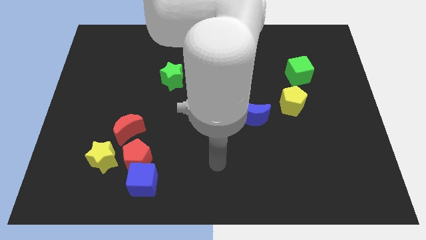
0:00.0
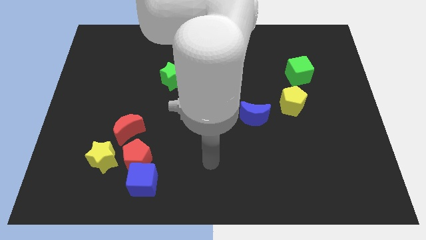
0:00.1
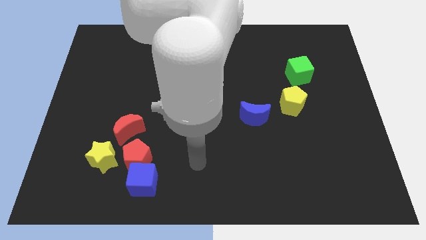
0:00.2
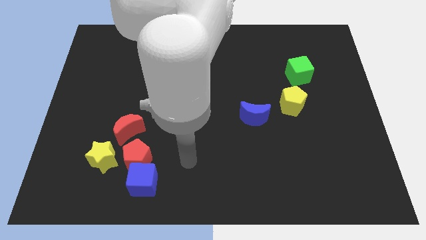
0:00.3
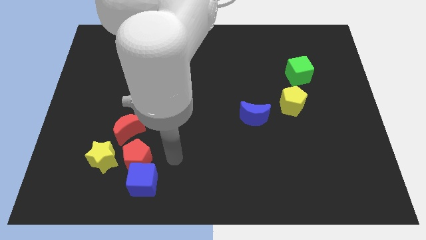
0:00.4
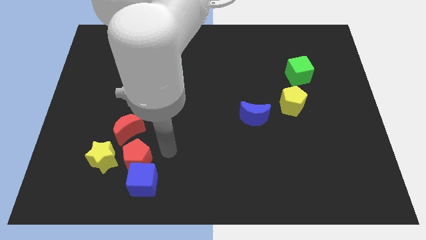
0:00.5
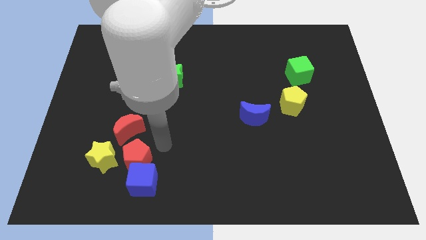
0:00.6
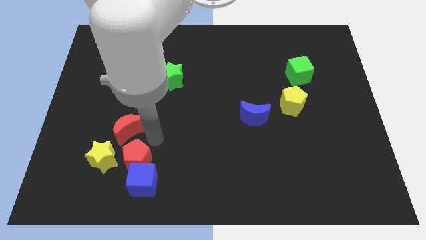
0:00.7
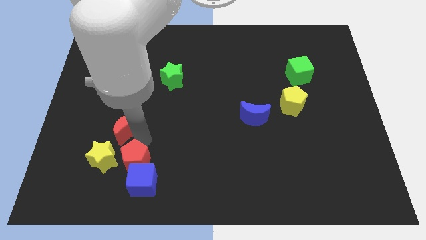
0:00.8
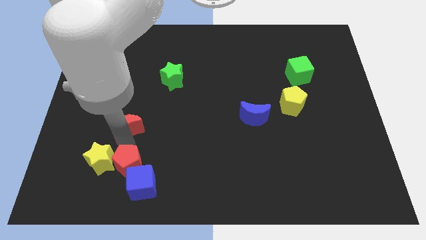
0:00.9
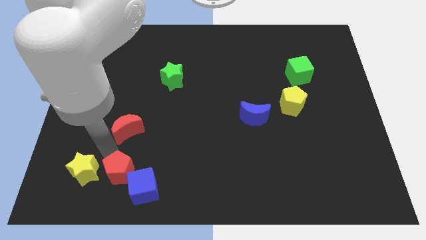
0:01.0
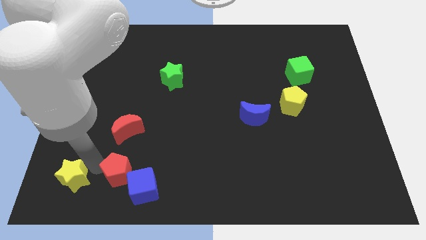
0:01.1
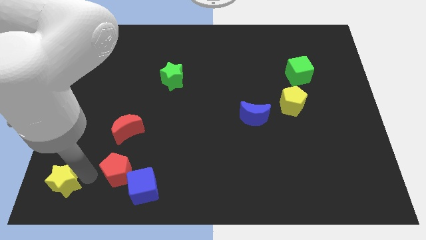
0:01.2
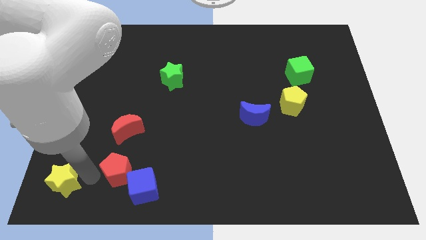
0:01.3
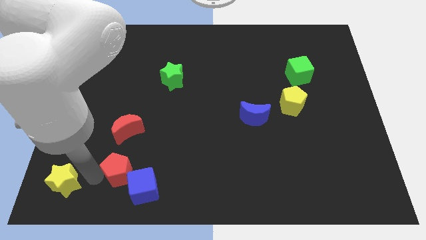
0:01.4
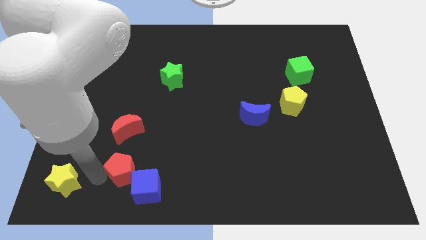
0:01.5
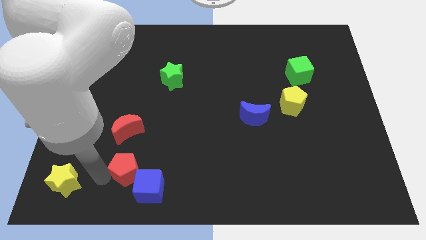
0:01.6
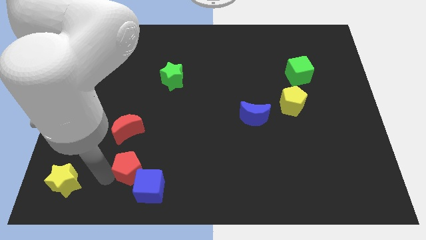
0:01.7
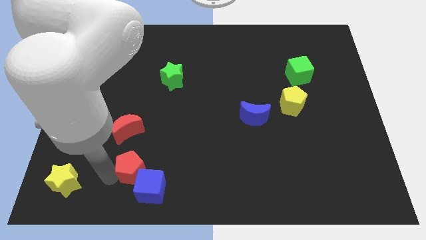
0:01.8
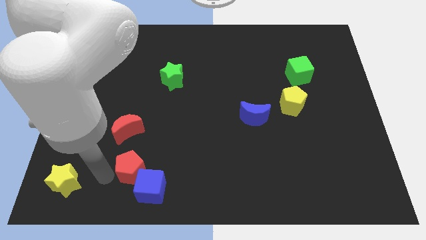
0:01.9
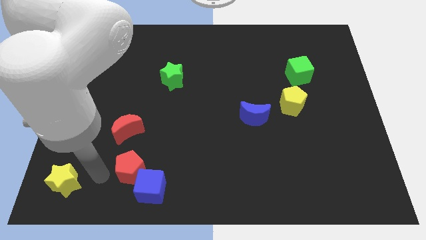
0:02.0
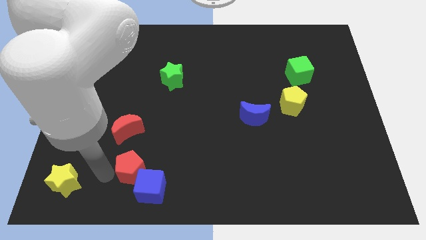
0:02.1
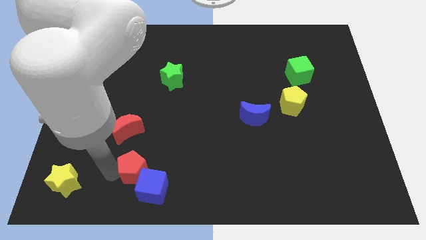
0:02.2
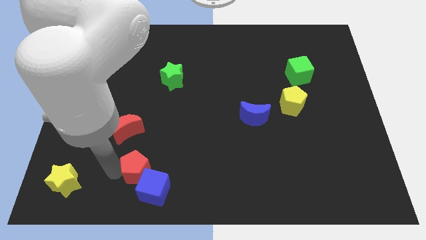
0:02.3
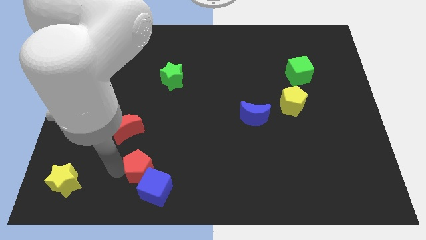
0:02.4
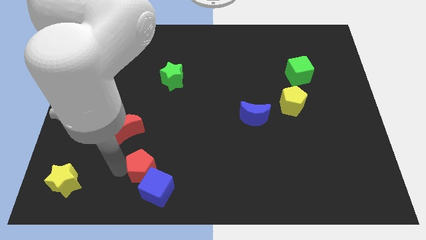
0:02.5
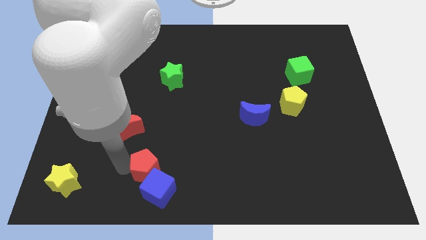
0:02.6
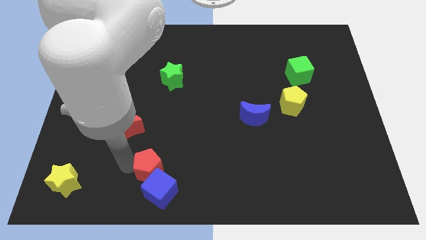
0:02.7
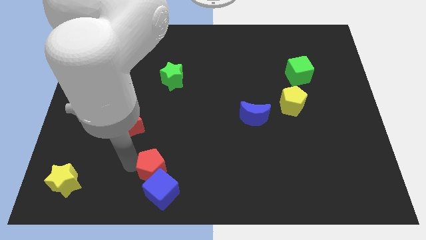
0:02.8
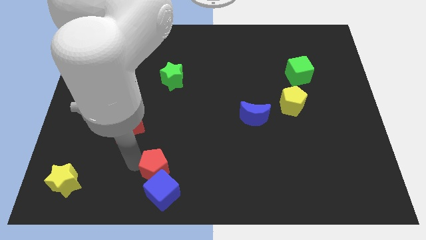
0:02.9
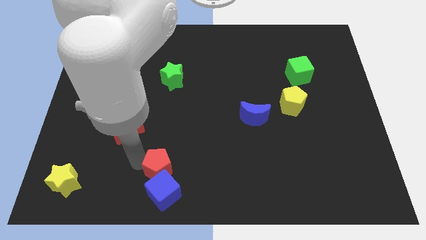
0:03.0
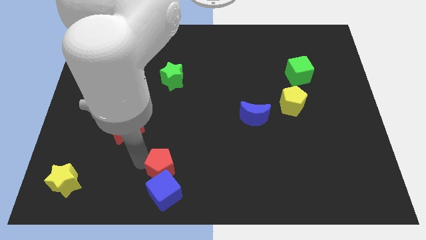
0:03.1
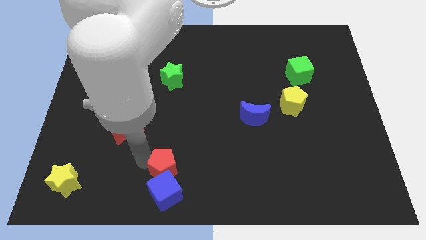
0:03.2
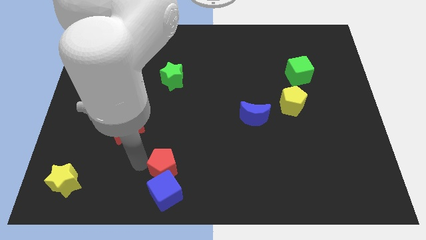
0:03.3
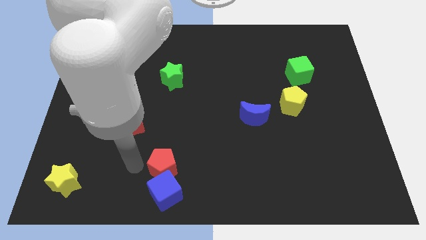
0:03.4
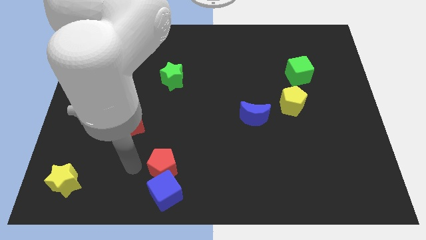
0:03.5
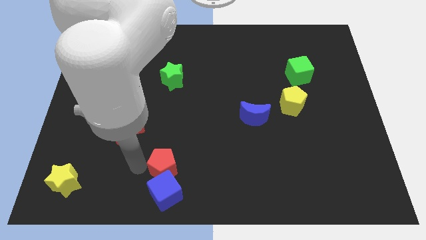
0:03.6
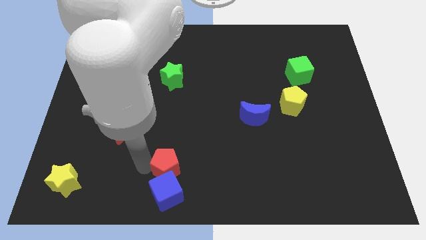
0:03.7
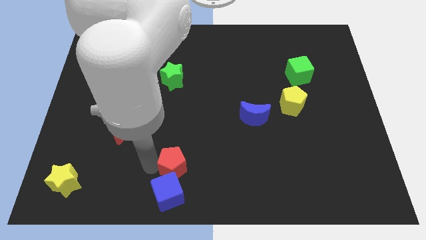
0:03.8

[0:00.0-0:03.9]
pull the red pentagon apart from the blue cube, yellow star, and red moon

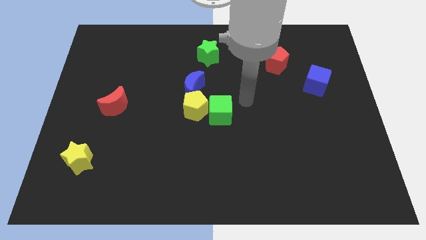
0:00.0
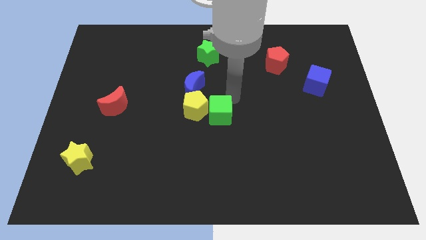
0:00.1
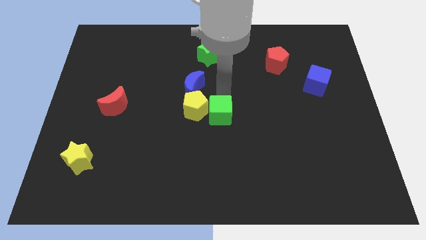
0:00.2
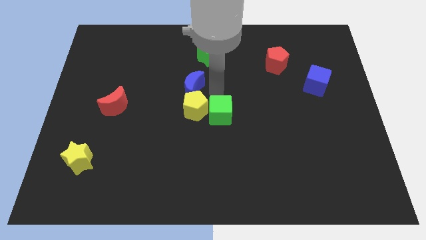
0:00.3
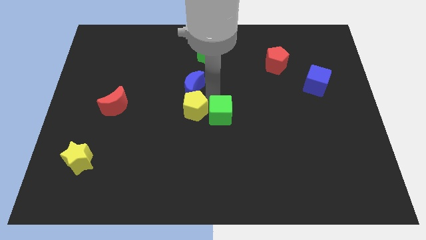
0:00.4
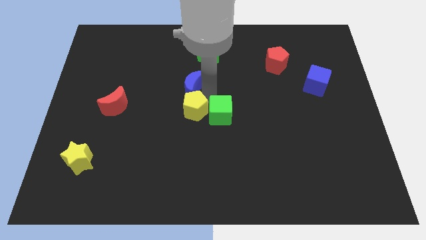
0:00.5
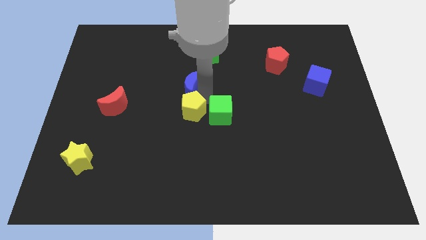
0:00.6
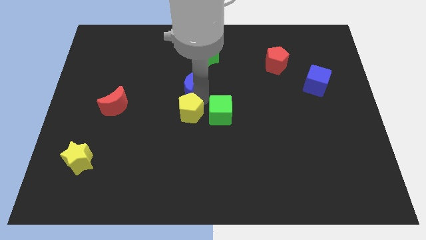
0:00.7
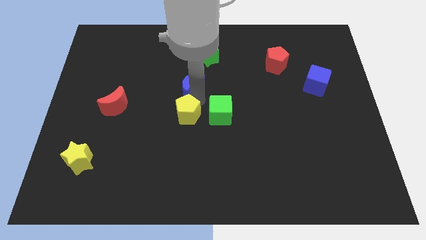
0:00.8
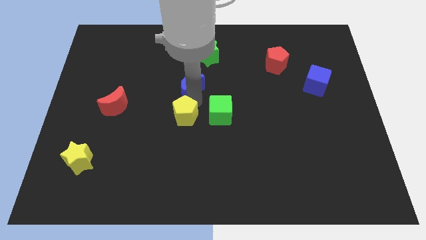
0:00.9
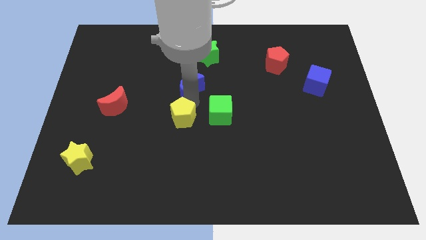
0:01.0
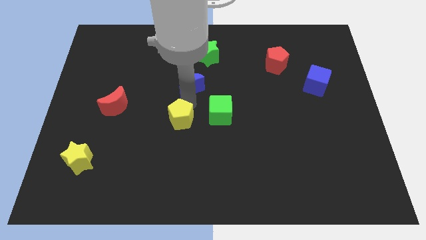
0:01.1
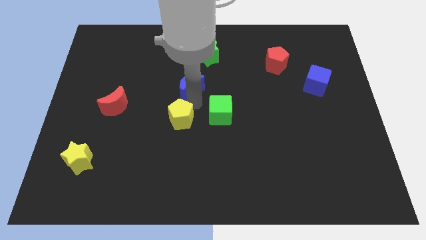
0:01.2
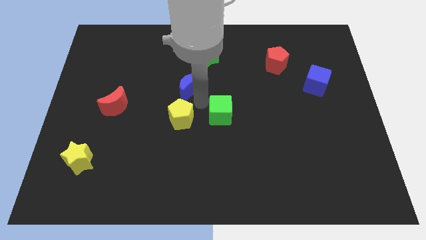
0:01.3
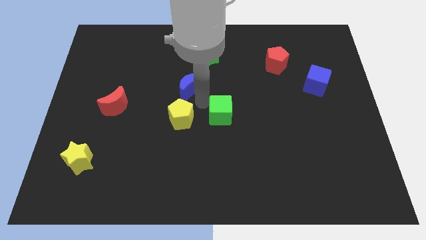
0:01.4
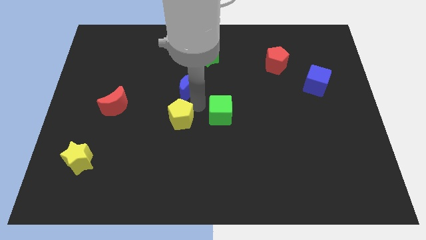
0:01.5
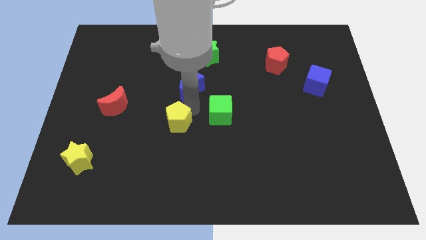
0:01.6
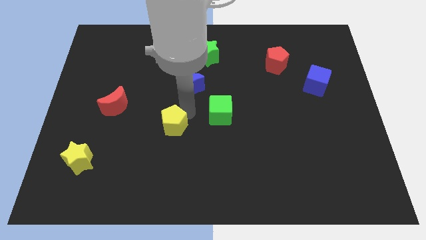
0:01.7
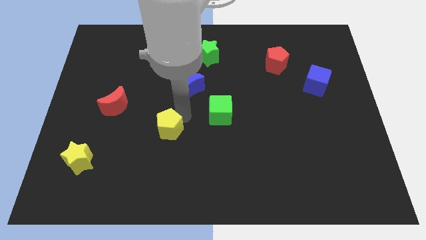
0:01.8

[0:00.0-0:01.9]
separate the yellow pentagon from the green cube and blue moon

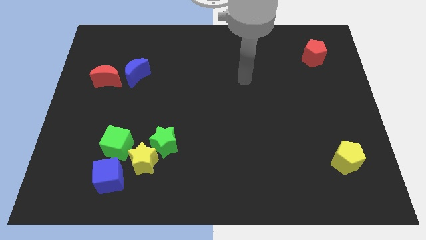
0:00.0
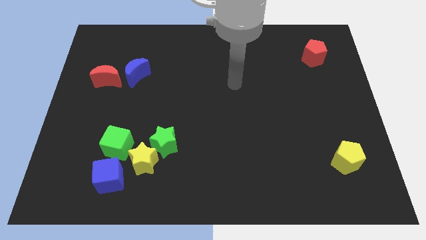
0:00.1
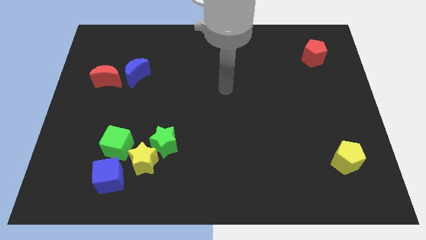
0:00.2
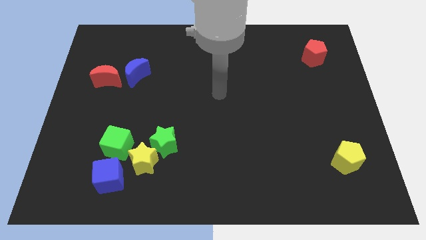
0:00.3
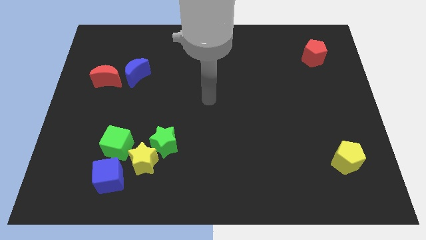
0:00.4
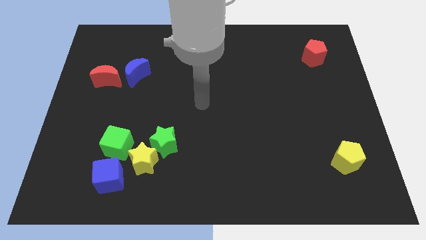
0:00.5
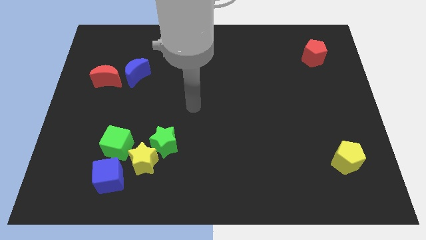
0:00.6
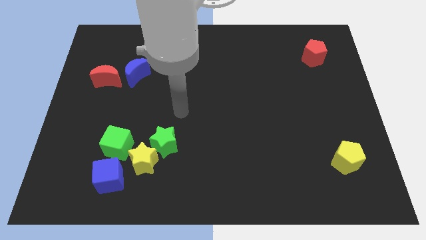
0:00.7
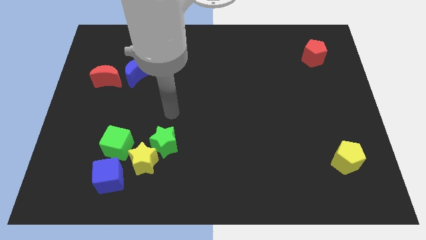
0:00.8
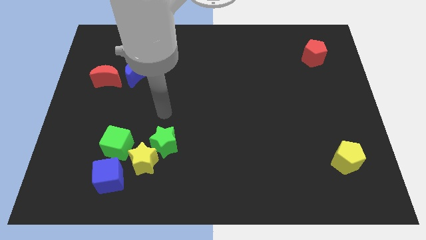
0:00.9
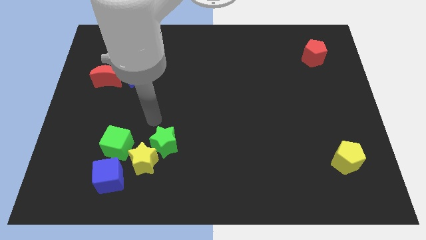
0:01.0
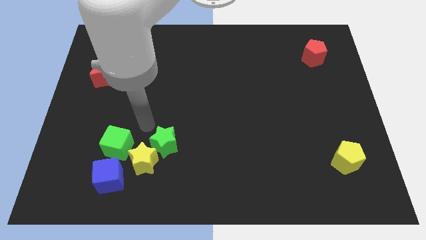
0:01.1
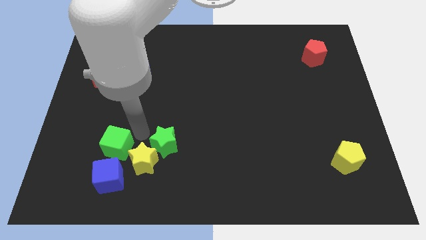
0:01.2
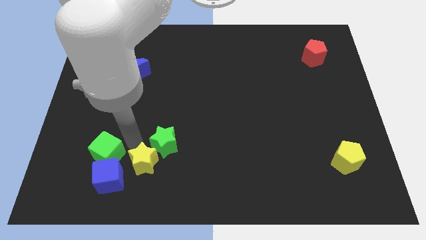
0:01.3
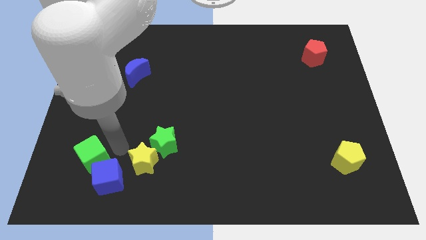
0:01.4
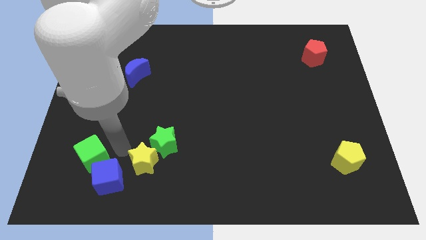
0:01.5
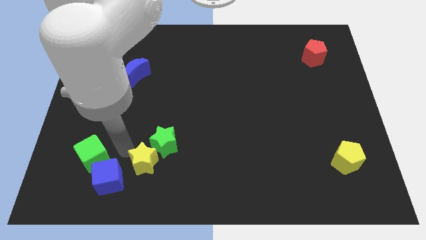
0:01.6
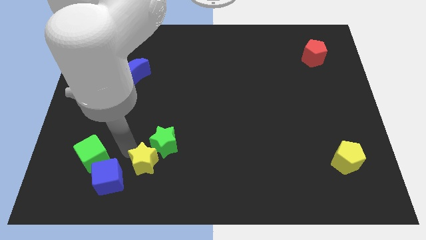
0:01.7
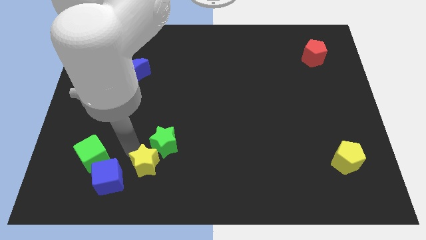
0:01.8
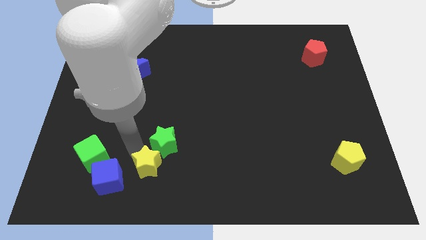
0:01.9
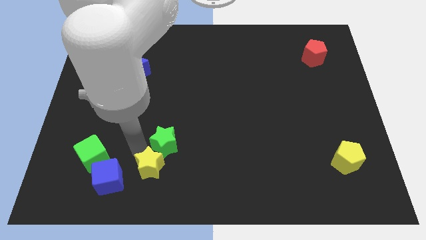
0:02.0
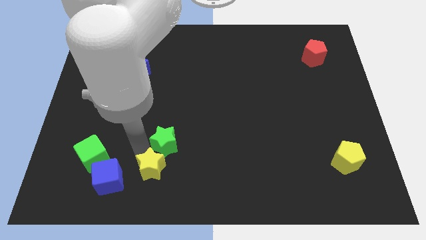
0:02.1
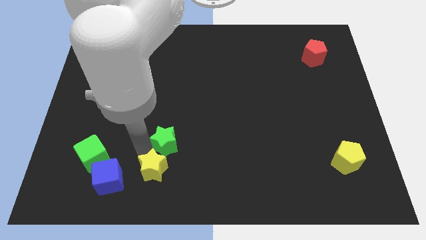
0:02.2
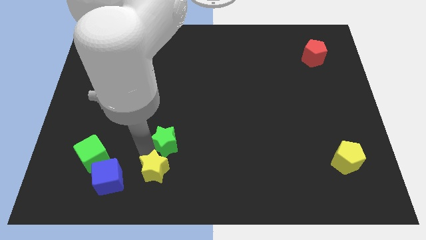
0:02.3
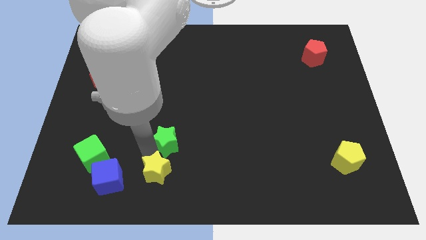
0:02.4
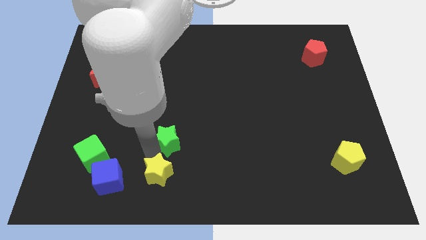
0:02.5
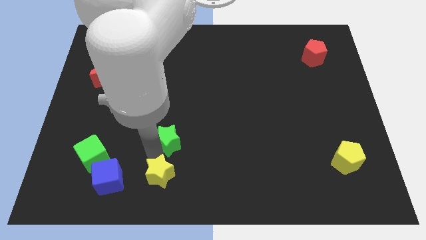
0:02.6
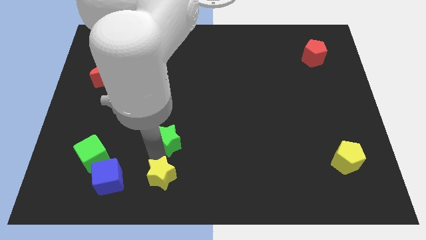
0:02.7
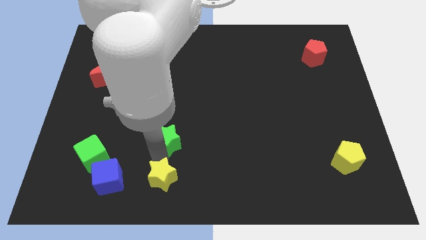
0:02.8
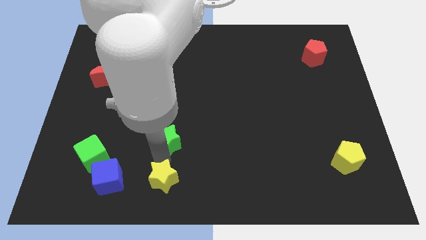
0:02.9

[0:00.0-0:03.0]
pull the yellow star apart from the green star, green cube, and blue cube

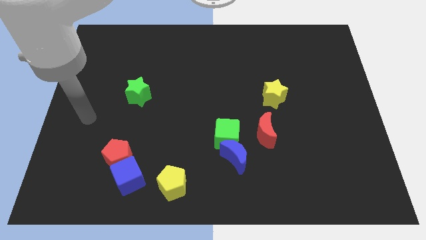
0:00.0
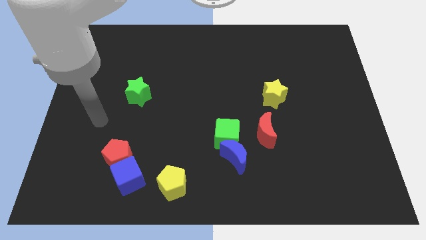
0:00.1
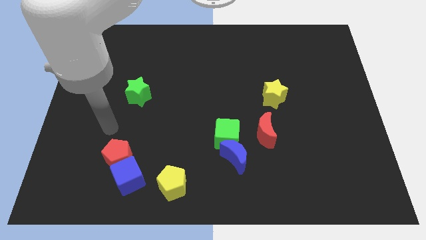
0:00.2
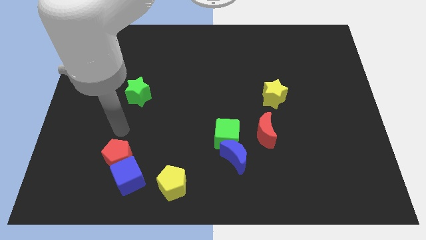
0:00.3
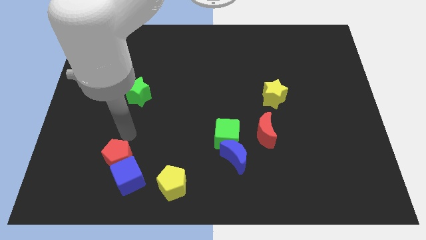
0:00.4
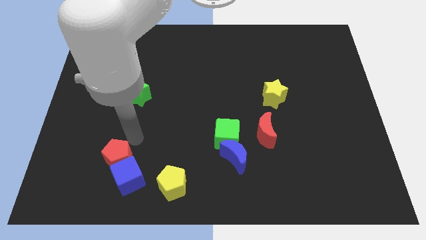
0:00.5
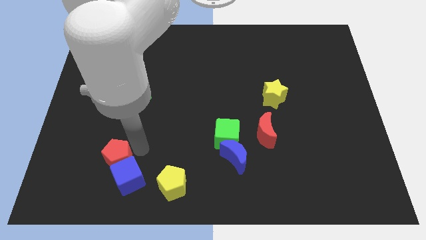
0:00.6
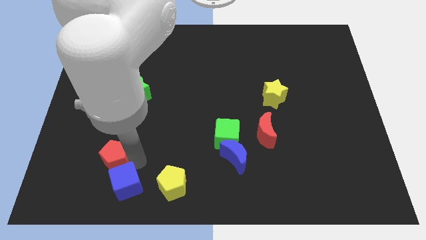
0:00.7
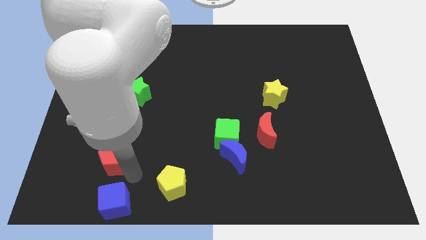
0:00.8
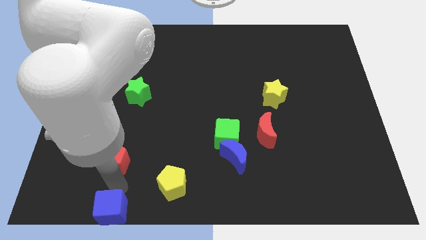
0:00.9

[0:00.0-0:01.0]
pull the red pentagon apart from the blue cube
